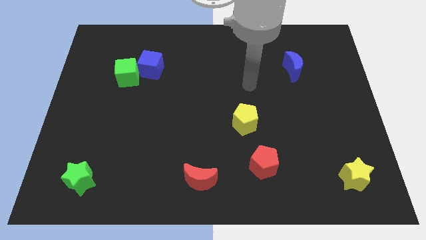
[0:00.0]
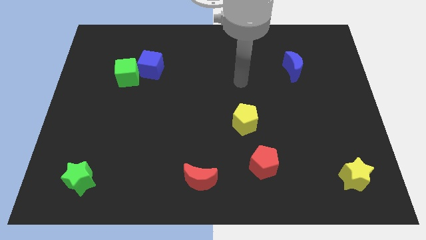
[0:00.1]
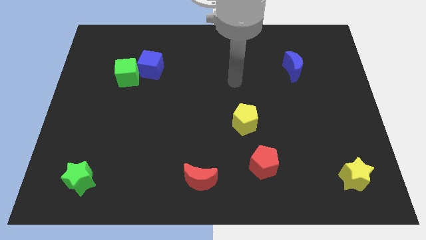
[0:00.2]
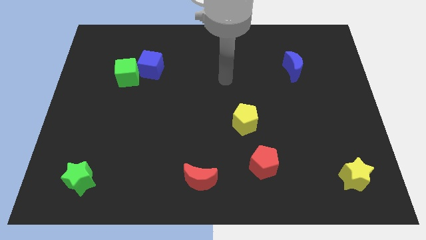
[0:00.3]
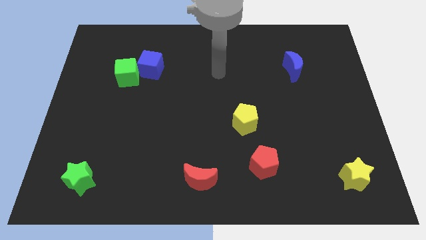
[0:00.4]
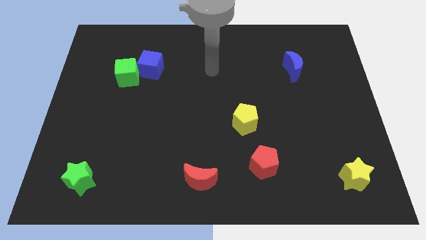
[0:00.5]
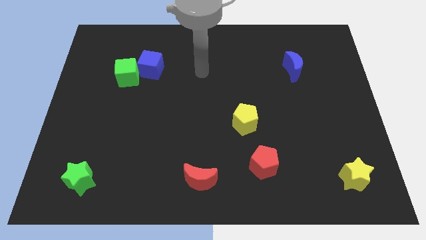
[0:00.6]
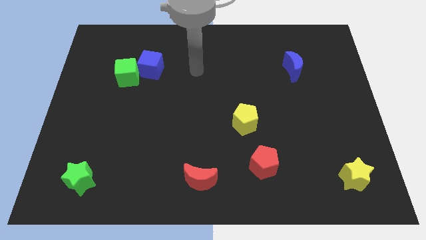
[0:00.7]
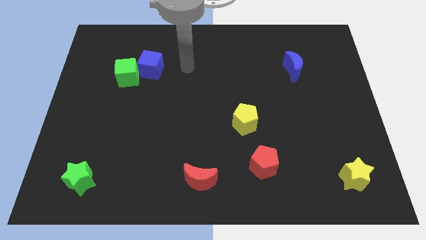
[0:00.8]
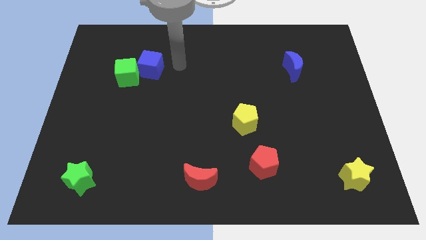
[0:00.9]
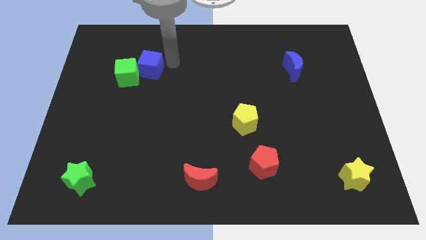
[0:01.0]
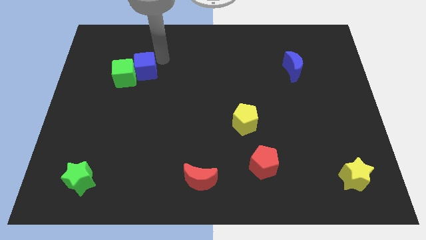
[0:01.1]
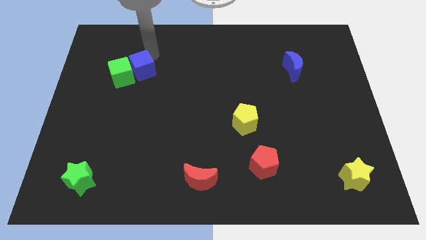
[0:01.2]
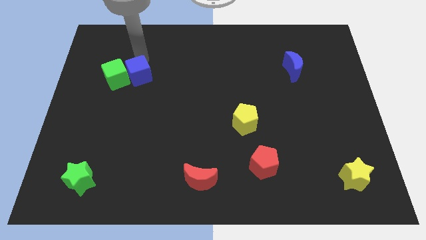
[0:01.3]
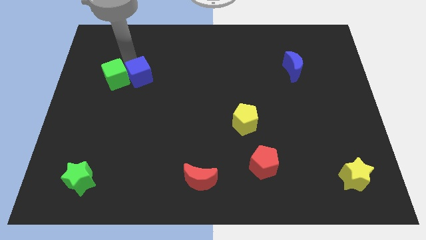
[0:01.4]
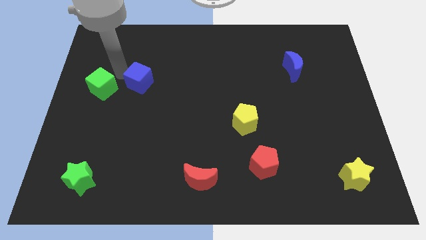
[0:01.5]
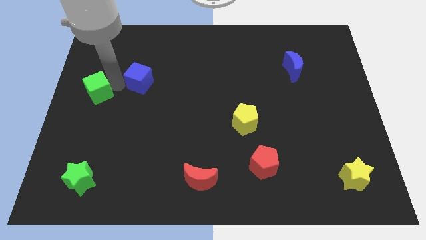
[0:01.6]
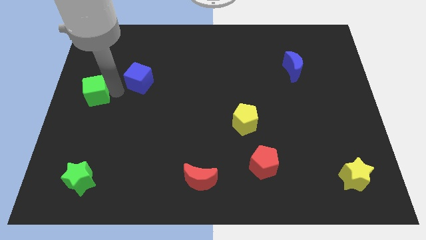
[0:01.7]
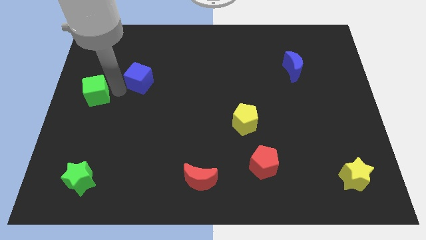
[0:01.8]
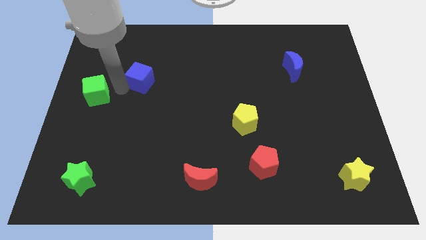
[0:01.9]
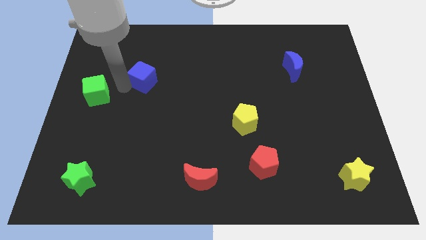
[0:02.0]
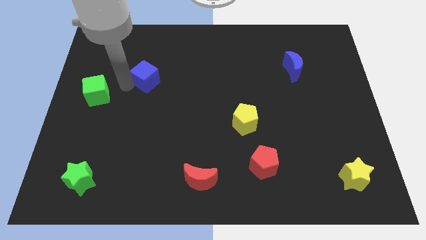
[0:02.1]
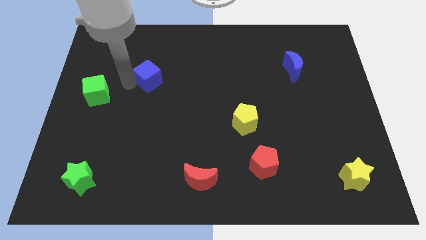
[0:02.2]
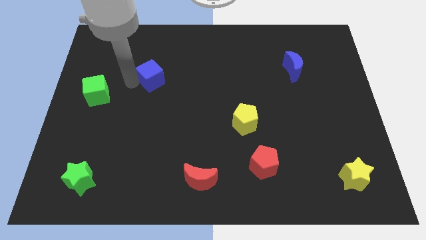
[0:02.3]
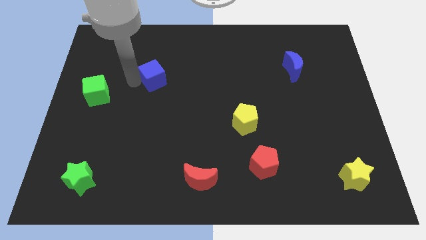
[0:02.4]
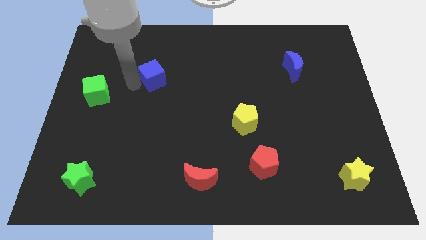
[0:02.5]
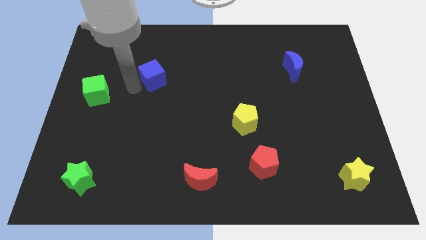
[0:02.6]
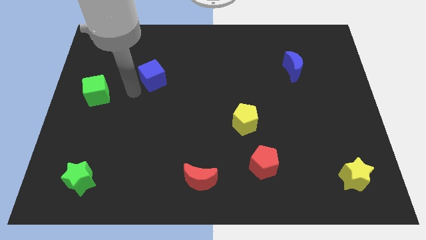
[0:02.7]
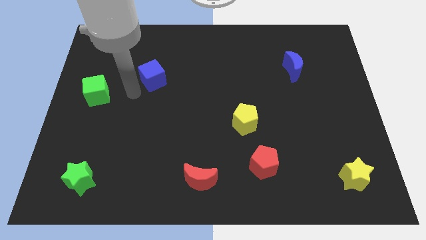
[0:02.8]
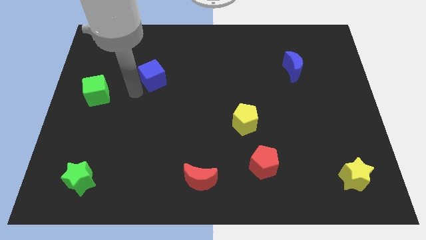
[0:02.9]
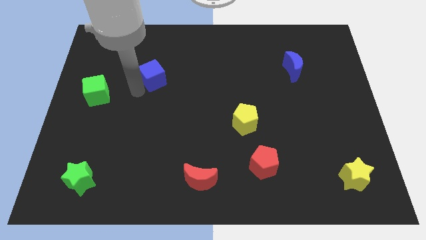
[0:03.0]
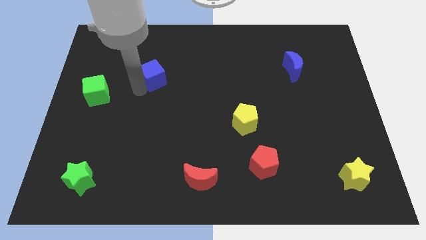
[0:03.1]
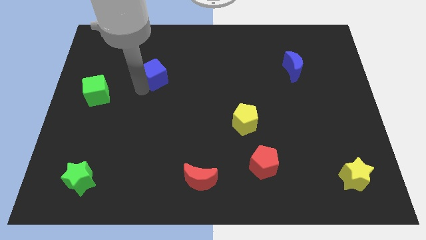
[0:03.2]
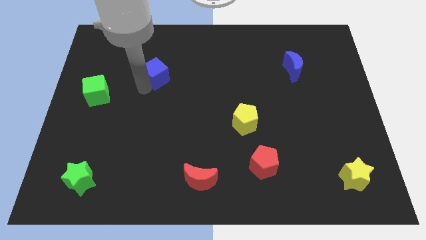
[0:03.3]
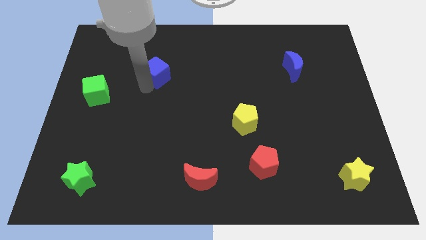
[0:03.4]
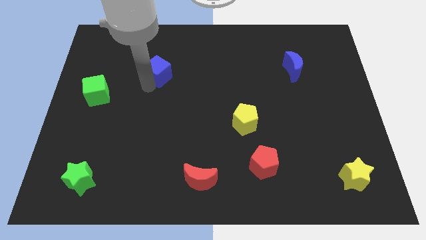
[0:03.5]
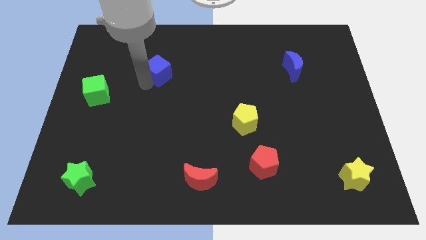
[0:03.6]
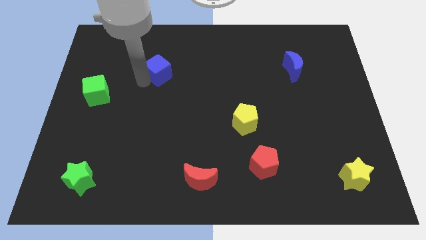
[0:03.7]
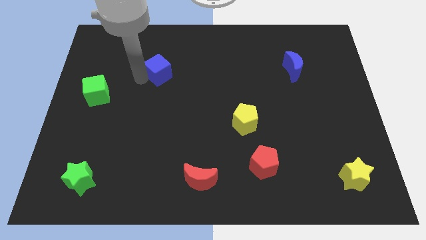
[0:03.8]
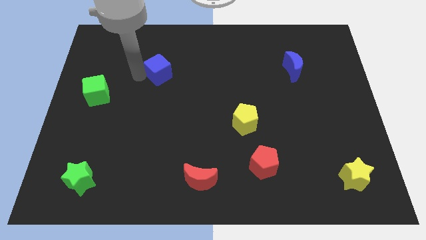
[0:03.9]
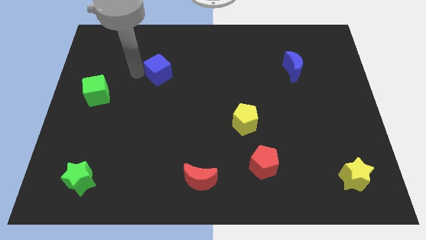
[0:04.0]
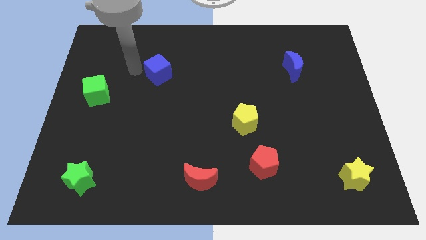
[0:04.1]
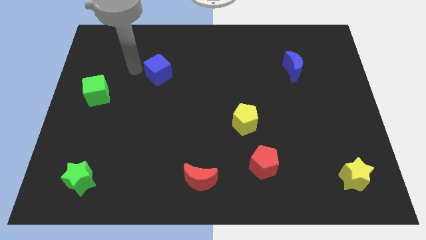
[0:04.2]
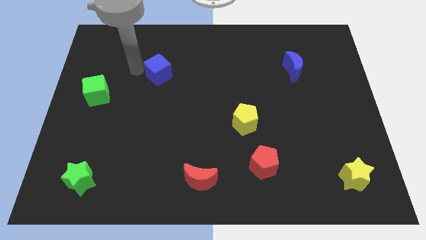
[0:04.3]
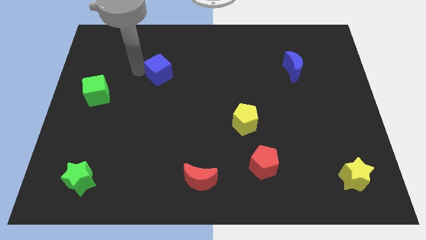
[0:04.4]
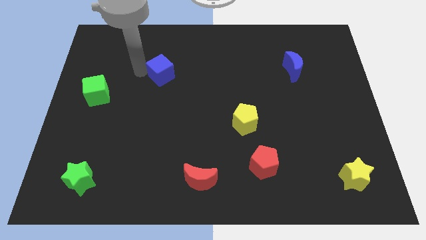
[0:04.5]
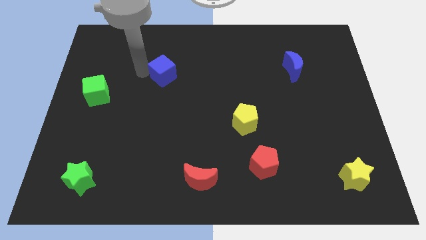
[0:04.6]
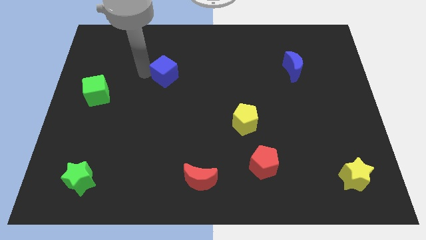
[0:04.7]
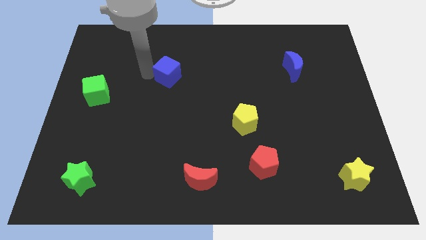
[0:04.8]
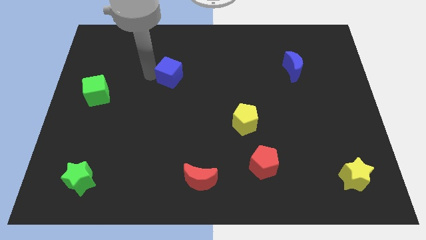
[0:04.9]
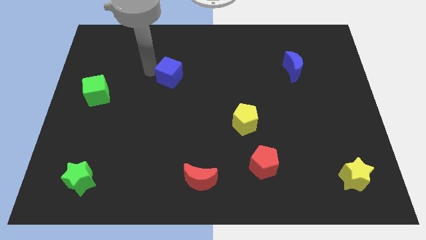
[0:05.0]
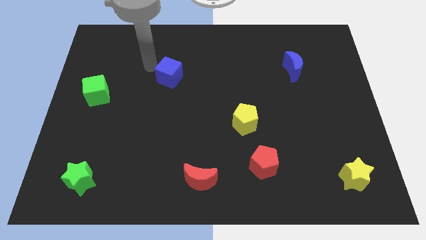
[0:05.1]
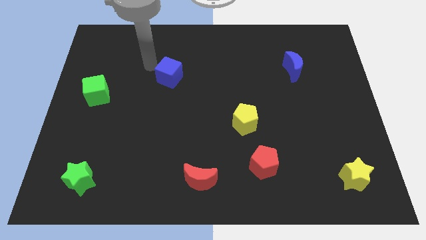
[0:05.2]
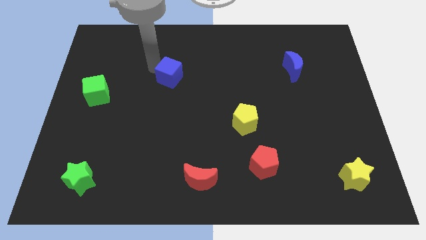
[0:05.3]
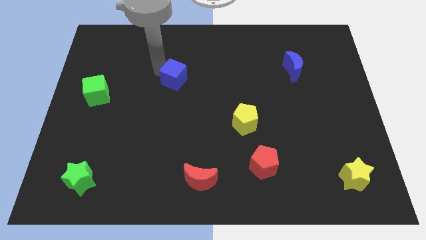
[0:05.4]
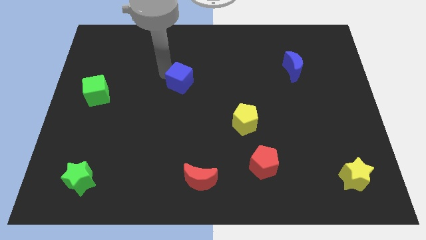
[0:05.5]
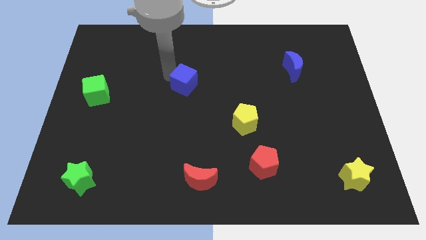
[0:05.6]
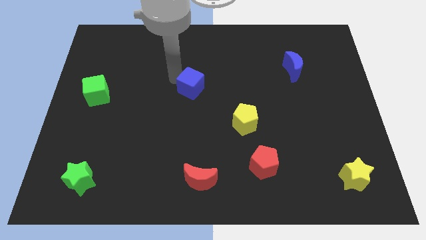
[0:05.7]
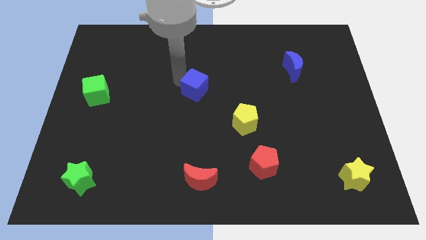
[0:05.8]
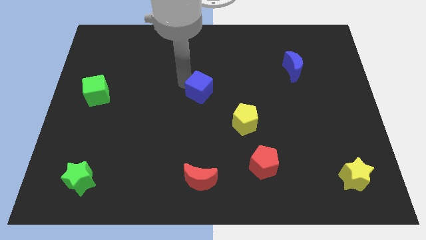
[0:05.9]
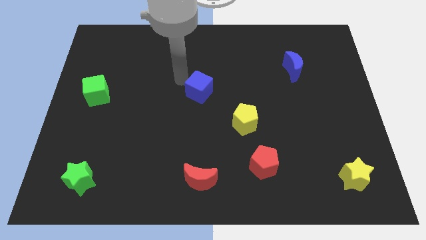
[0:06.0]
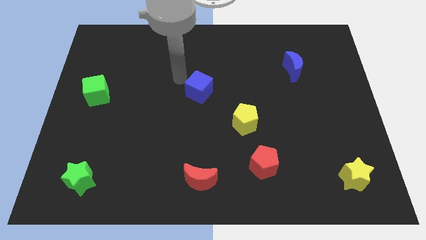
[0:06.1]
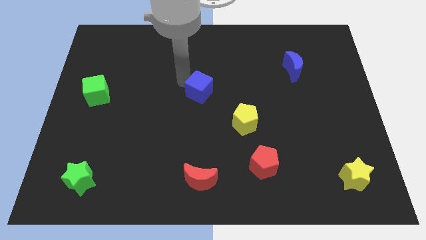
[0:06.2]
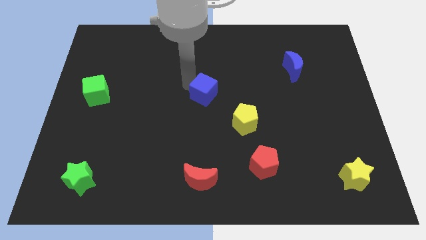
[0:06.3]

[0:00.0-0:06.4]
push the blue cube to the top left of the yellow pentagon
